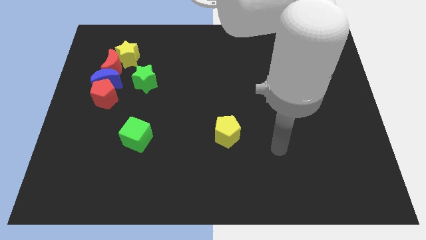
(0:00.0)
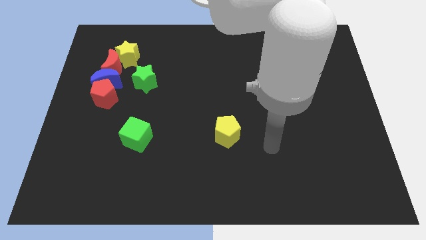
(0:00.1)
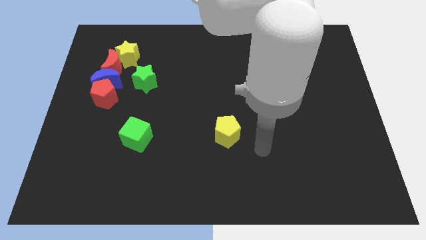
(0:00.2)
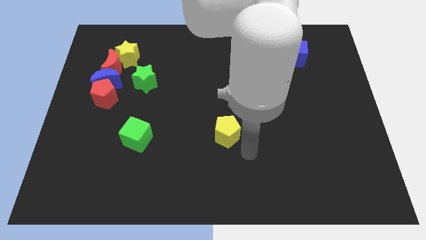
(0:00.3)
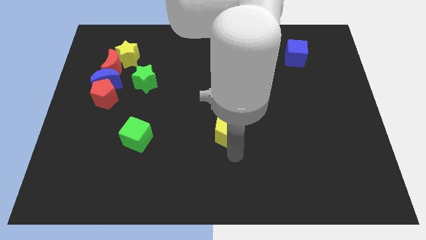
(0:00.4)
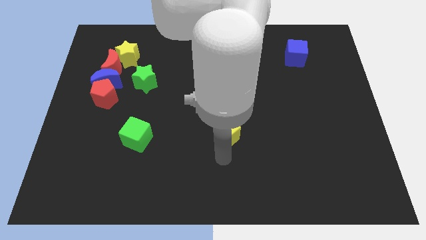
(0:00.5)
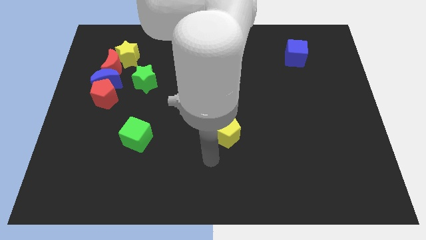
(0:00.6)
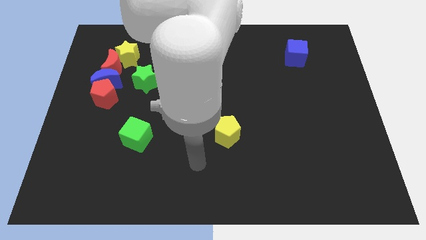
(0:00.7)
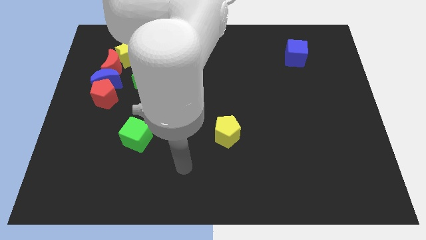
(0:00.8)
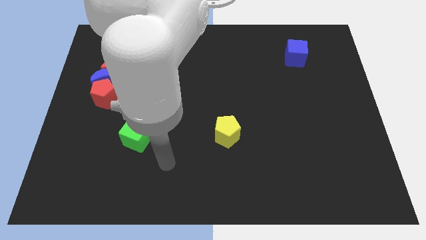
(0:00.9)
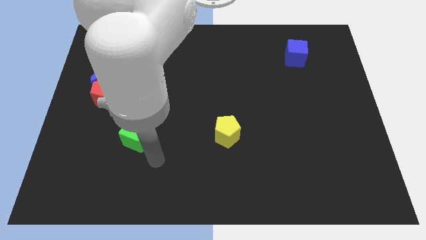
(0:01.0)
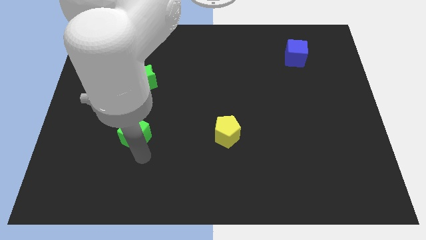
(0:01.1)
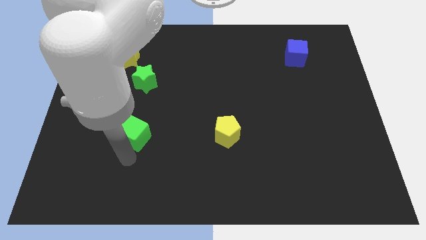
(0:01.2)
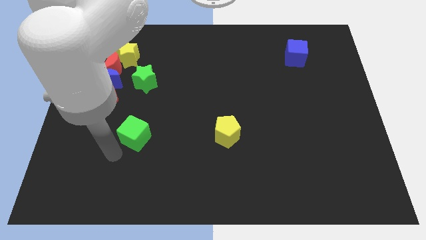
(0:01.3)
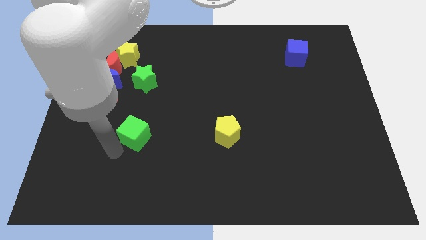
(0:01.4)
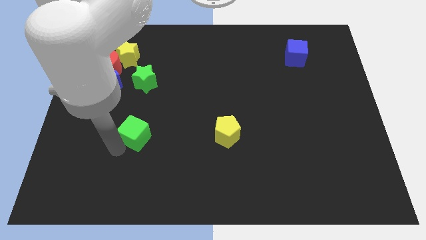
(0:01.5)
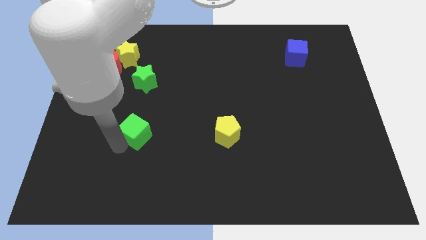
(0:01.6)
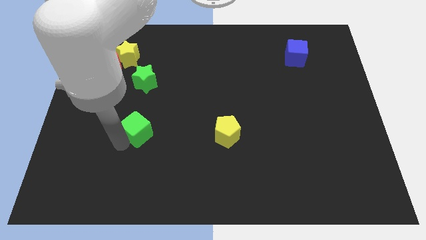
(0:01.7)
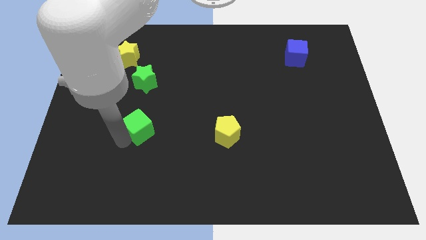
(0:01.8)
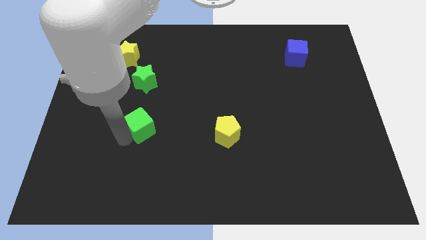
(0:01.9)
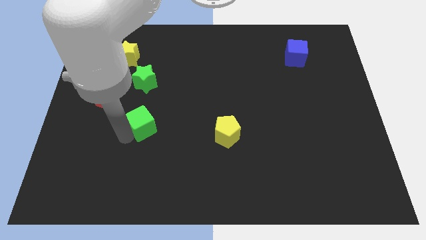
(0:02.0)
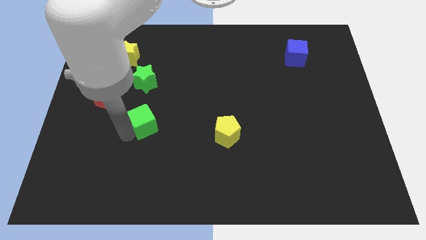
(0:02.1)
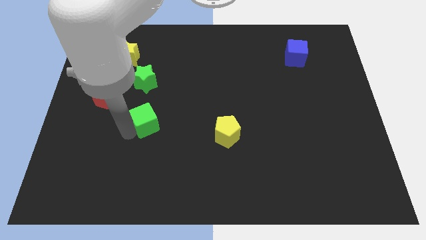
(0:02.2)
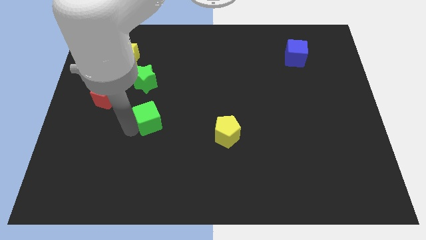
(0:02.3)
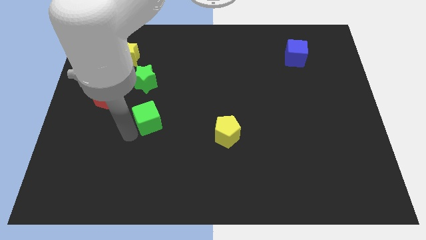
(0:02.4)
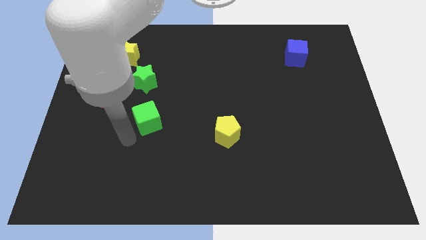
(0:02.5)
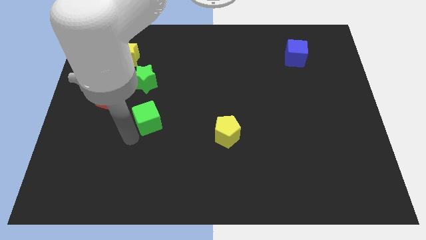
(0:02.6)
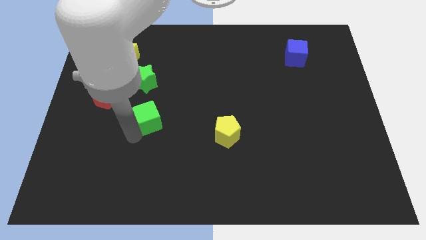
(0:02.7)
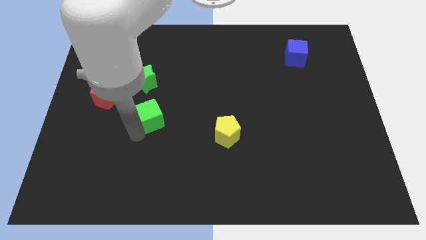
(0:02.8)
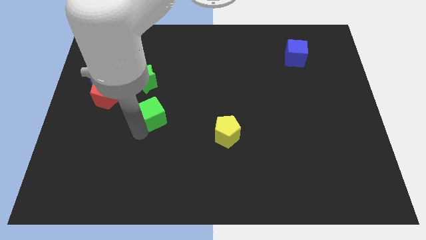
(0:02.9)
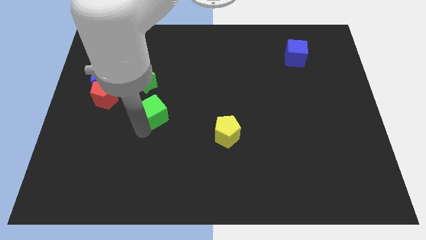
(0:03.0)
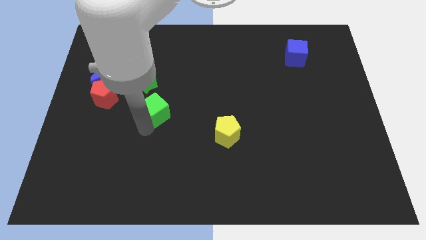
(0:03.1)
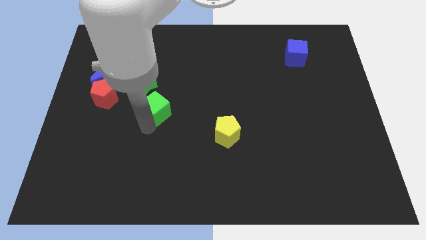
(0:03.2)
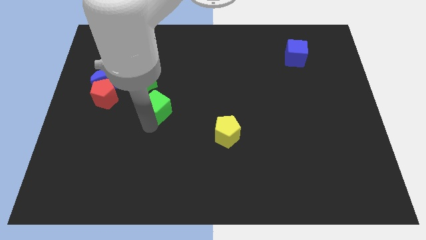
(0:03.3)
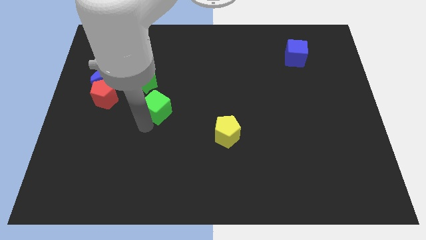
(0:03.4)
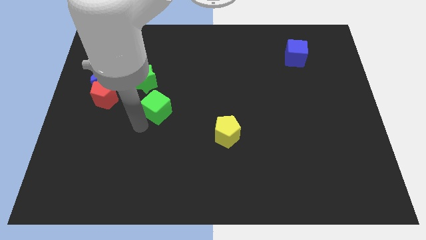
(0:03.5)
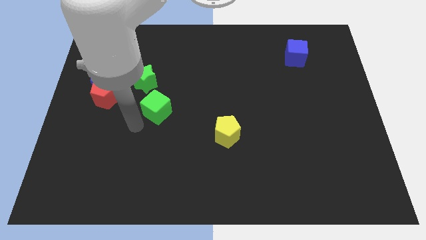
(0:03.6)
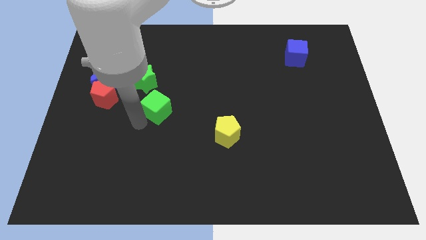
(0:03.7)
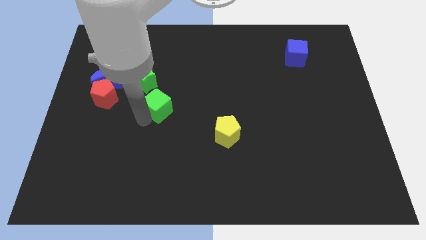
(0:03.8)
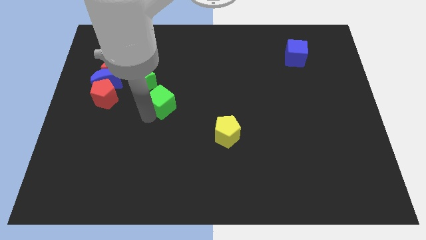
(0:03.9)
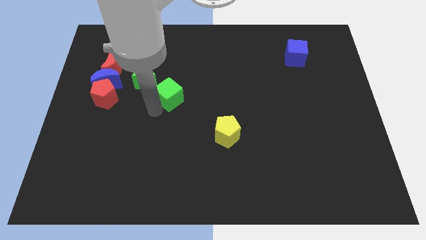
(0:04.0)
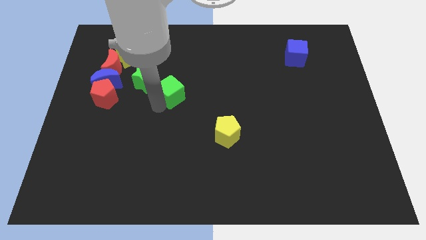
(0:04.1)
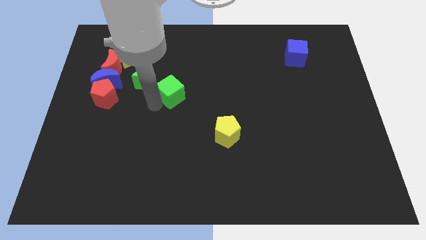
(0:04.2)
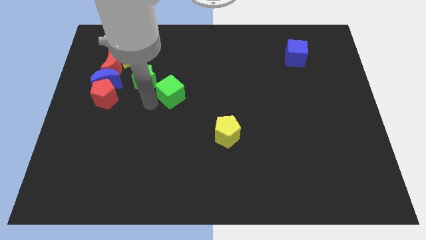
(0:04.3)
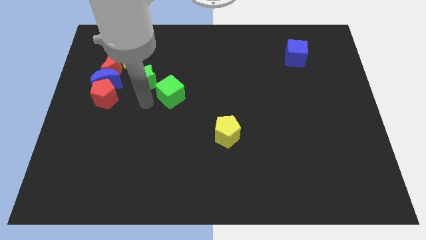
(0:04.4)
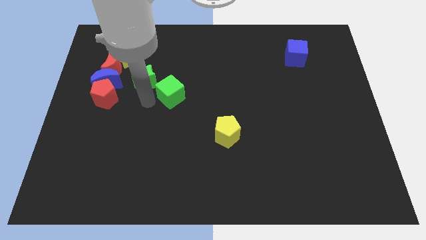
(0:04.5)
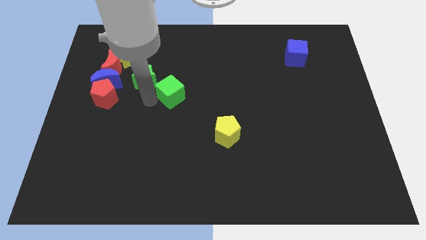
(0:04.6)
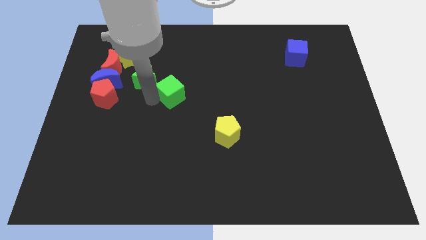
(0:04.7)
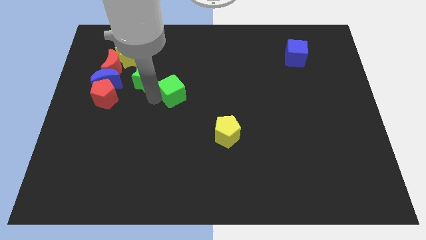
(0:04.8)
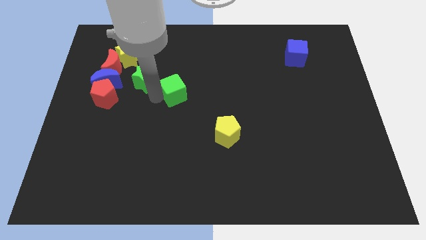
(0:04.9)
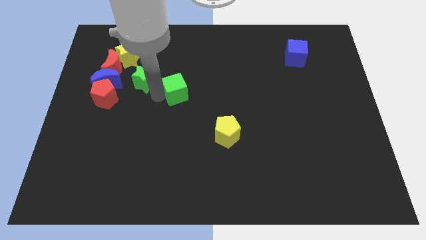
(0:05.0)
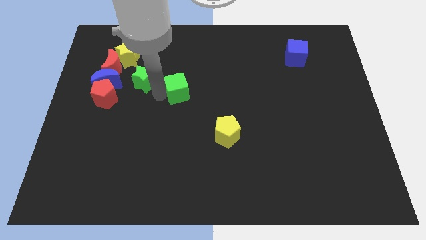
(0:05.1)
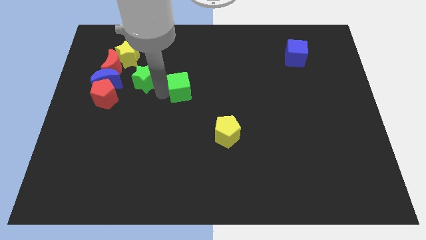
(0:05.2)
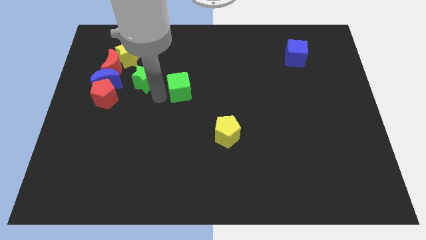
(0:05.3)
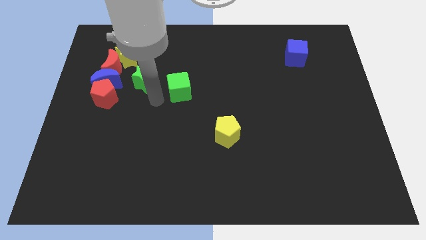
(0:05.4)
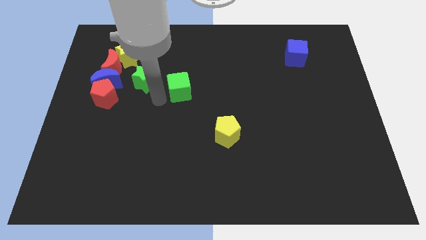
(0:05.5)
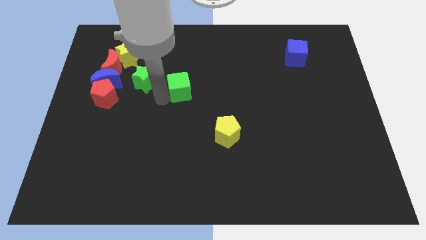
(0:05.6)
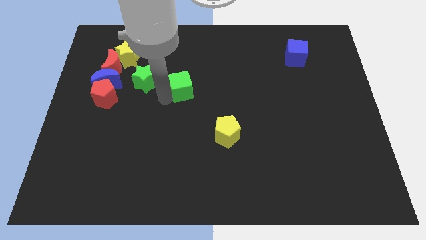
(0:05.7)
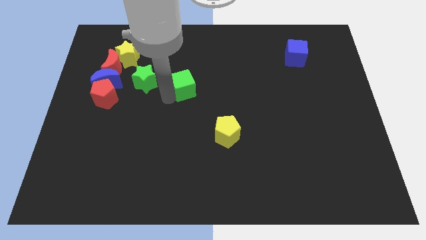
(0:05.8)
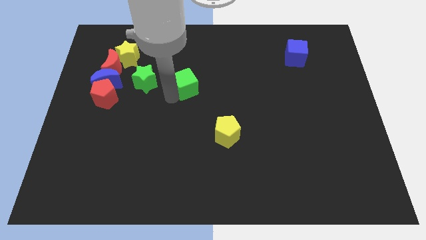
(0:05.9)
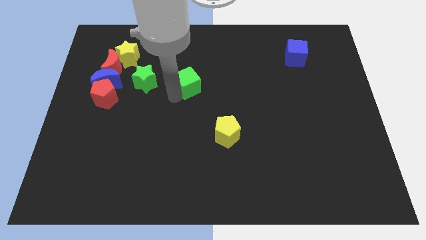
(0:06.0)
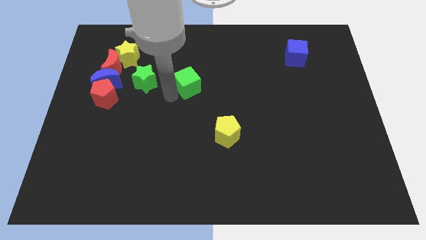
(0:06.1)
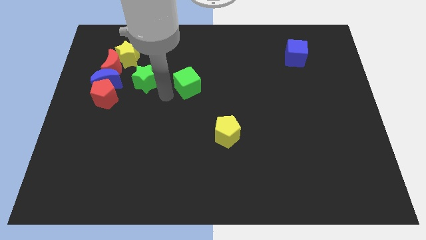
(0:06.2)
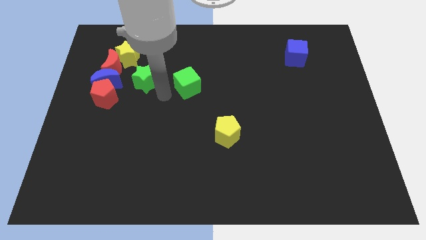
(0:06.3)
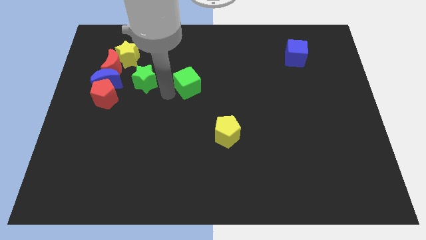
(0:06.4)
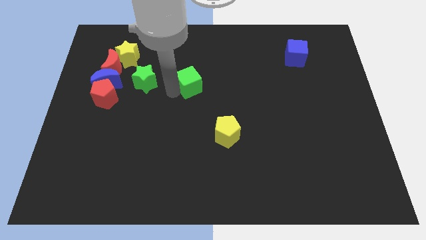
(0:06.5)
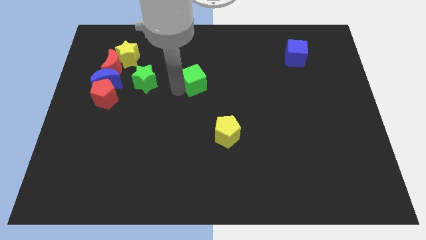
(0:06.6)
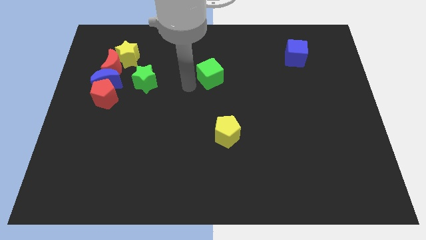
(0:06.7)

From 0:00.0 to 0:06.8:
move the green cube upwards and to the right diagonally

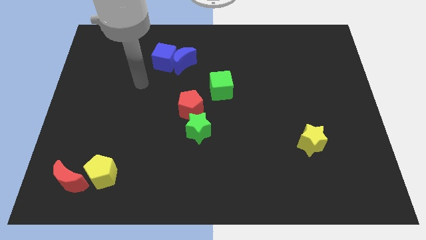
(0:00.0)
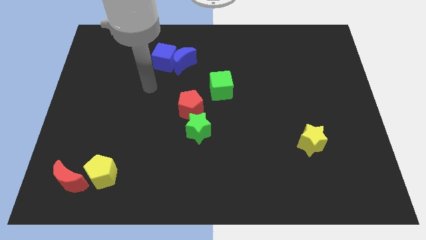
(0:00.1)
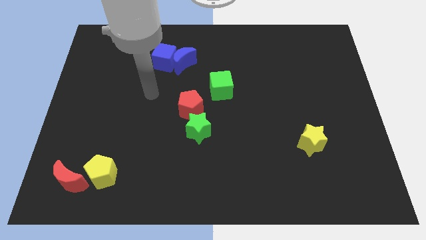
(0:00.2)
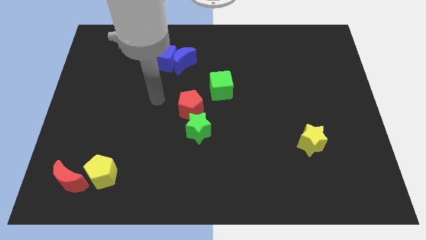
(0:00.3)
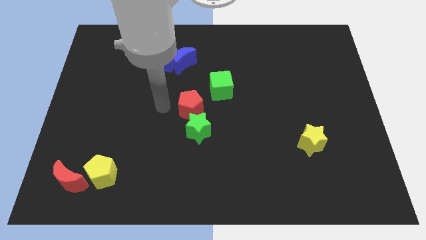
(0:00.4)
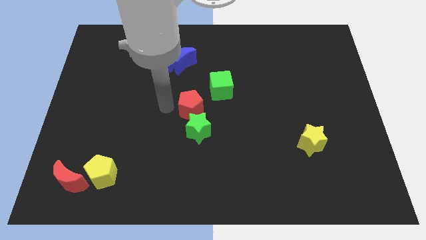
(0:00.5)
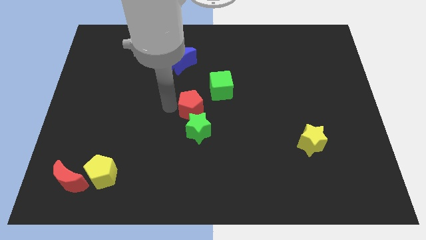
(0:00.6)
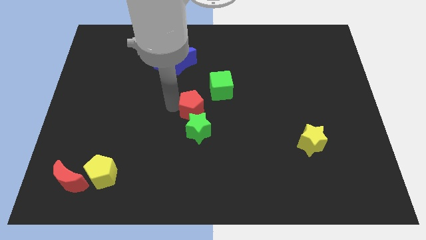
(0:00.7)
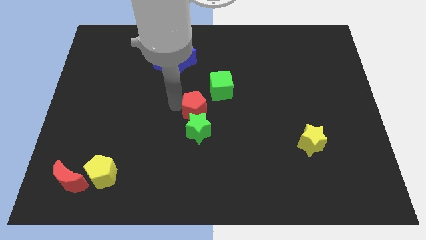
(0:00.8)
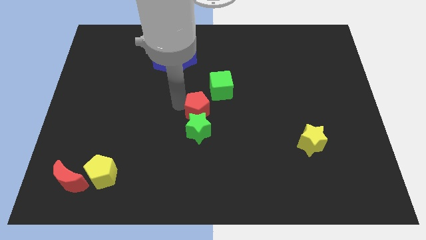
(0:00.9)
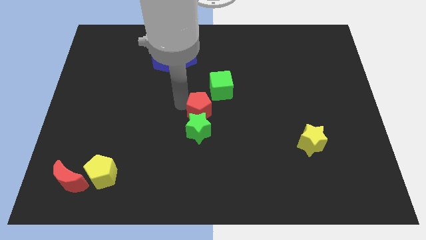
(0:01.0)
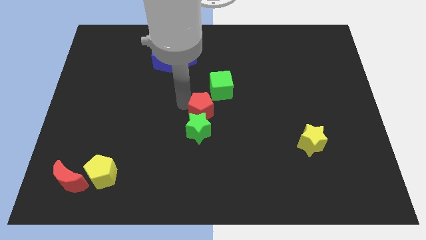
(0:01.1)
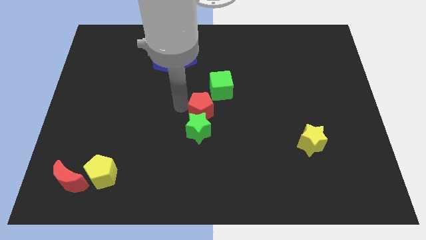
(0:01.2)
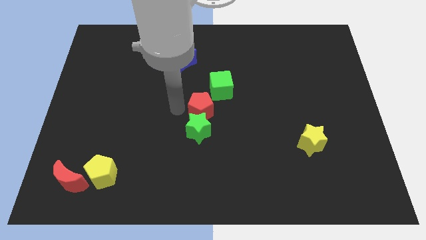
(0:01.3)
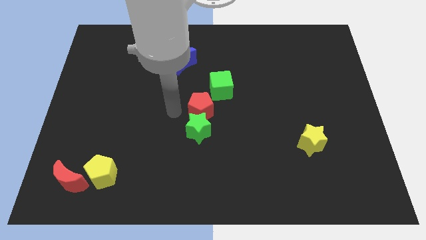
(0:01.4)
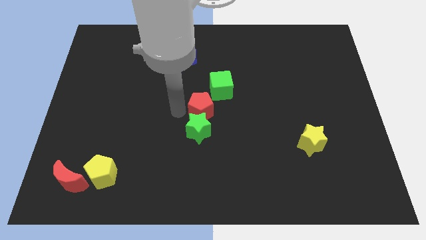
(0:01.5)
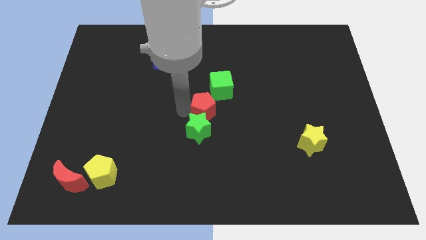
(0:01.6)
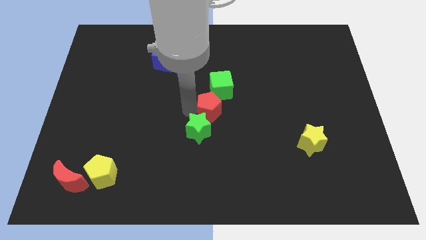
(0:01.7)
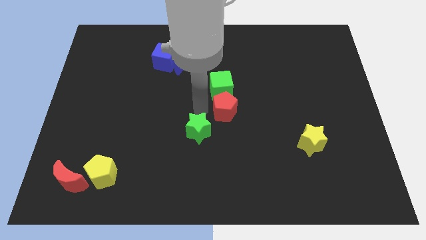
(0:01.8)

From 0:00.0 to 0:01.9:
move the red pentagon to the right a little
